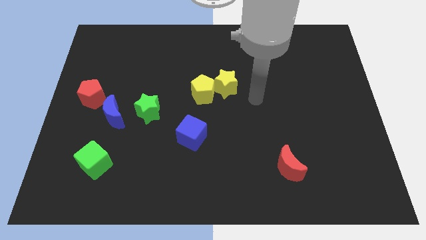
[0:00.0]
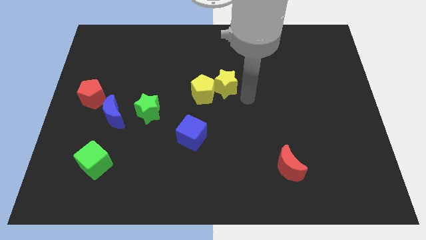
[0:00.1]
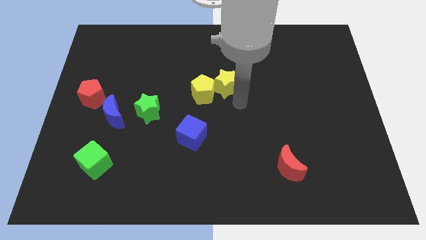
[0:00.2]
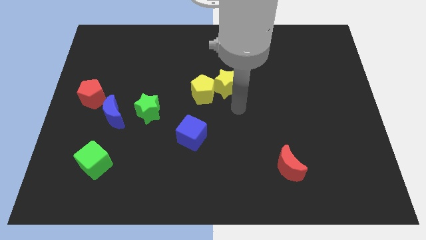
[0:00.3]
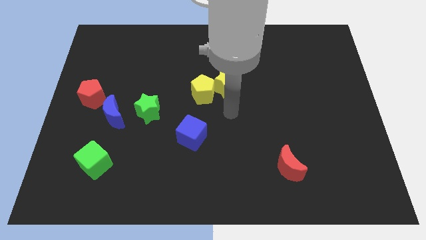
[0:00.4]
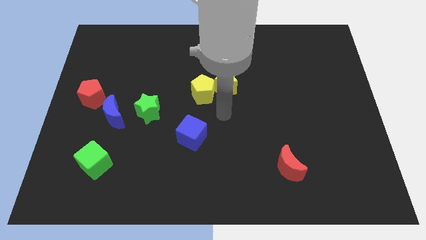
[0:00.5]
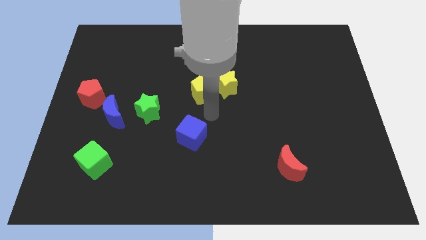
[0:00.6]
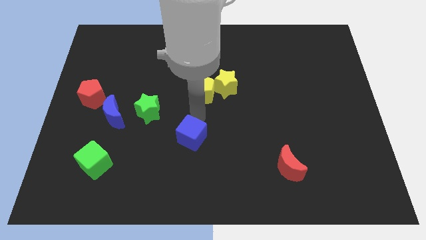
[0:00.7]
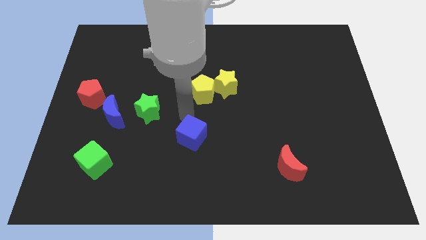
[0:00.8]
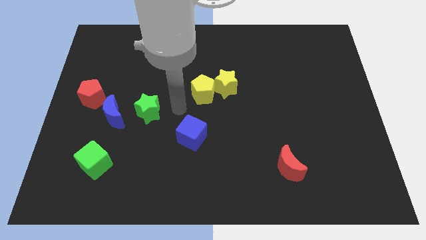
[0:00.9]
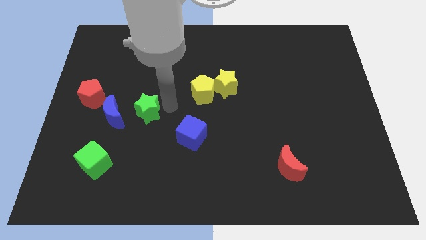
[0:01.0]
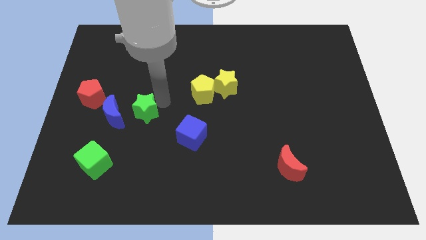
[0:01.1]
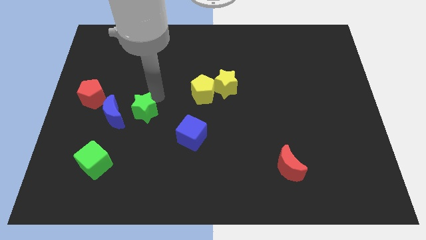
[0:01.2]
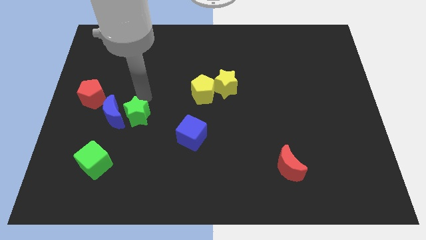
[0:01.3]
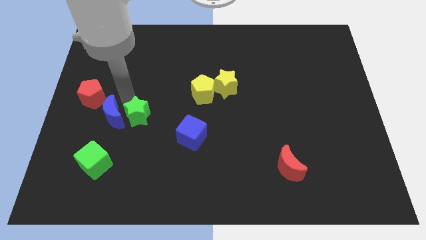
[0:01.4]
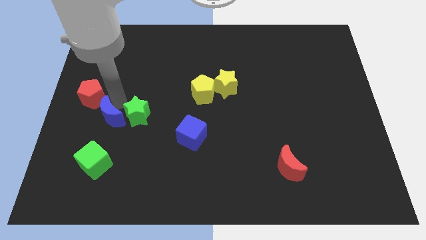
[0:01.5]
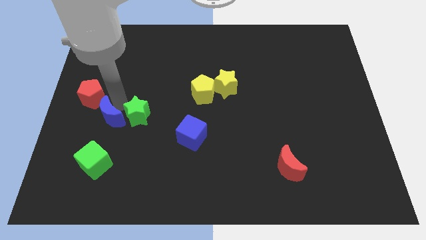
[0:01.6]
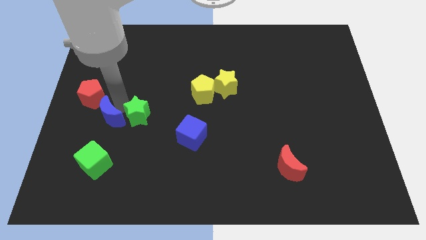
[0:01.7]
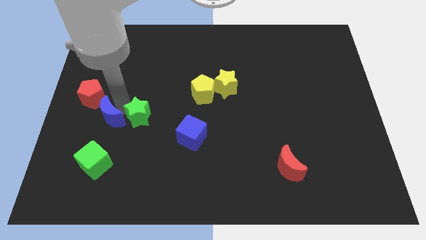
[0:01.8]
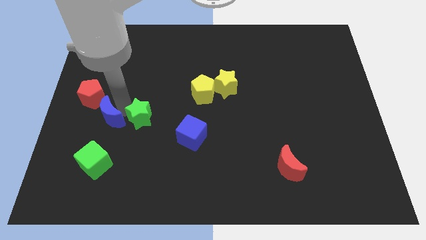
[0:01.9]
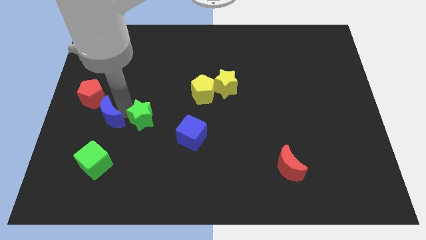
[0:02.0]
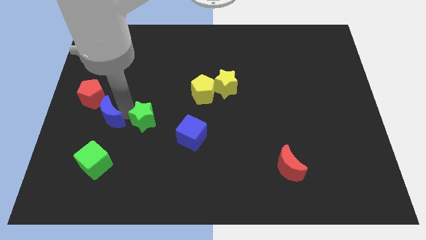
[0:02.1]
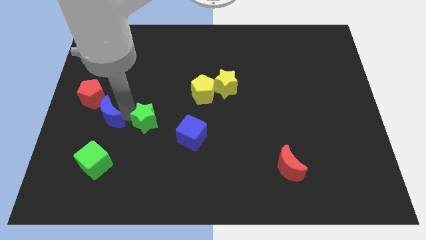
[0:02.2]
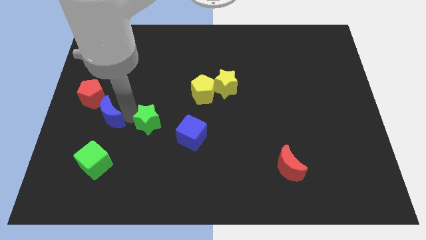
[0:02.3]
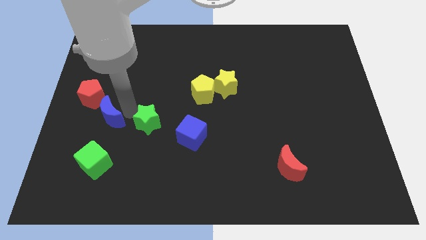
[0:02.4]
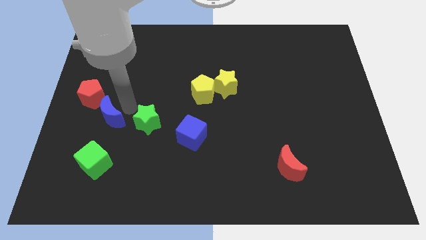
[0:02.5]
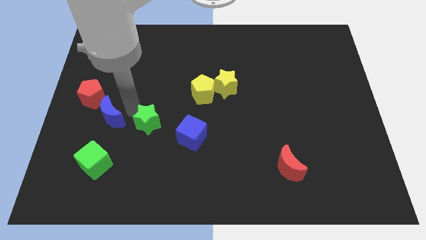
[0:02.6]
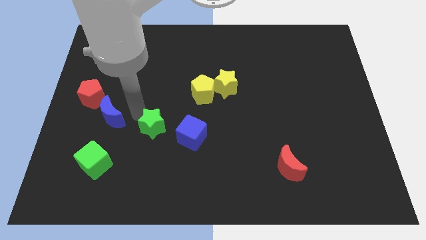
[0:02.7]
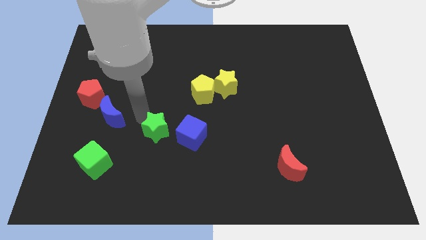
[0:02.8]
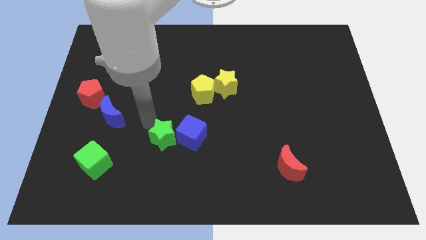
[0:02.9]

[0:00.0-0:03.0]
push the green star slightly downwards and then right

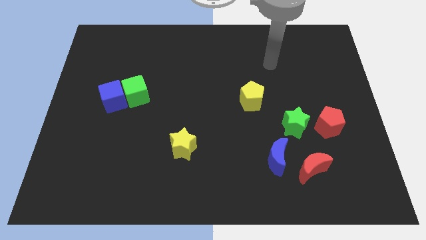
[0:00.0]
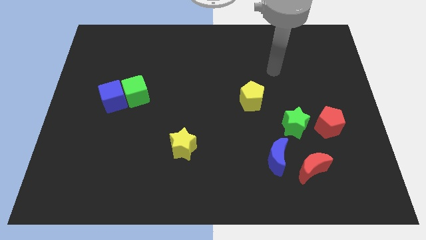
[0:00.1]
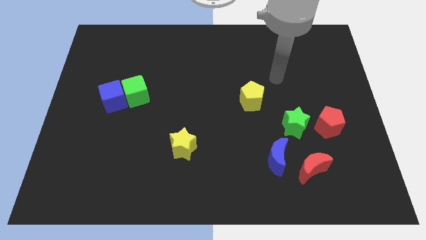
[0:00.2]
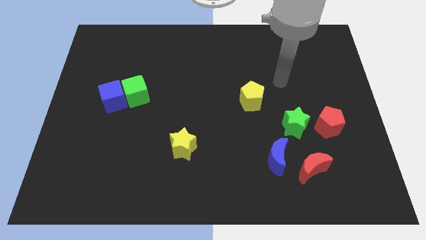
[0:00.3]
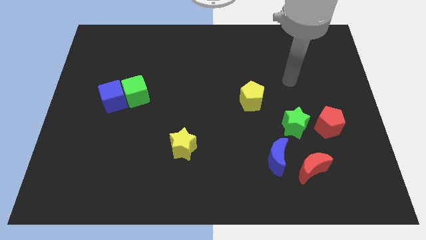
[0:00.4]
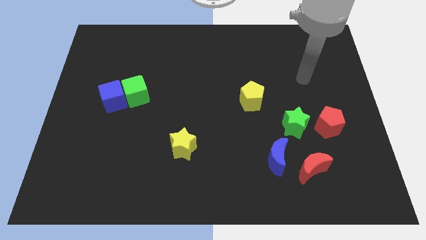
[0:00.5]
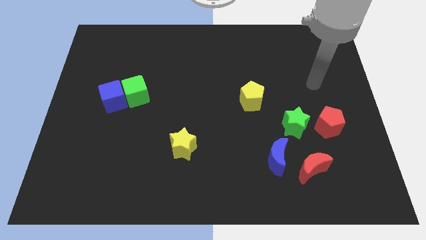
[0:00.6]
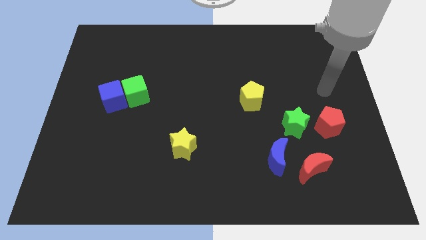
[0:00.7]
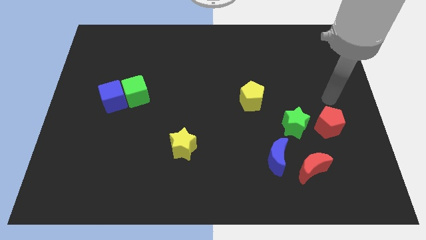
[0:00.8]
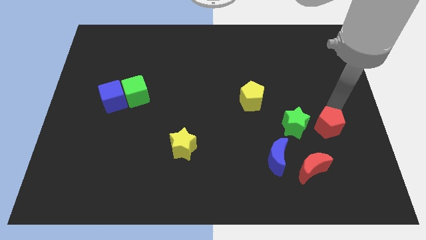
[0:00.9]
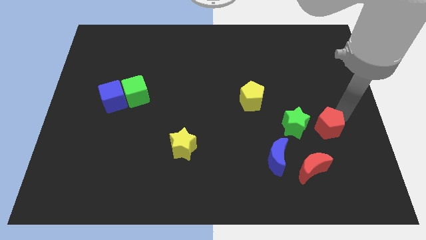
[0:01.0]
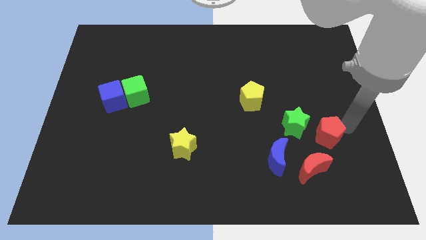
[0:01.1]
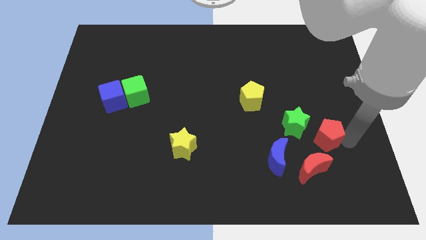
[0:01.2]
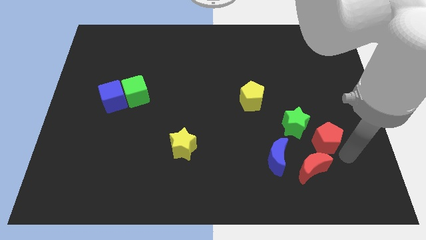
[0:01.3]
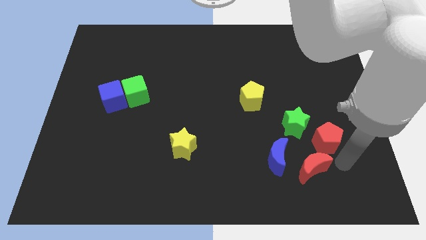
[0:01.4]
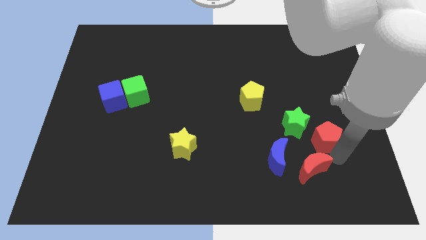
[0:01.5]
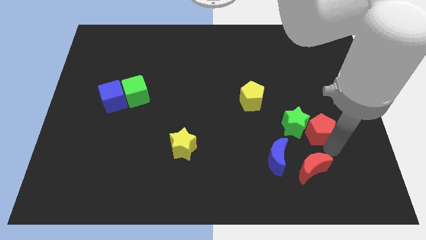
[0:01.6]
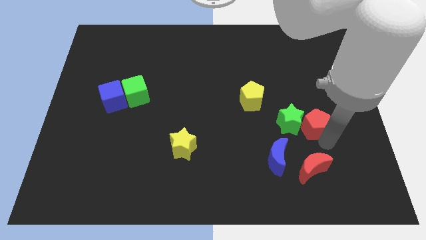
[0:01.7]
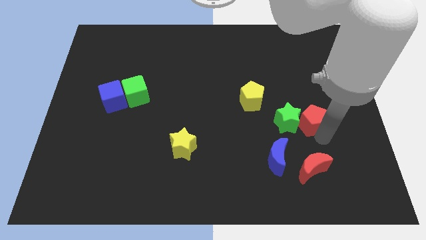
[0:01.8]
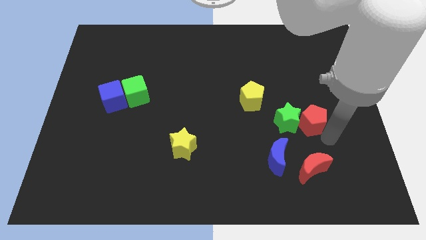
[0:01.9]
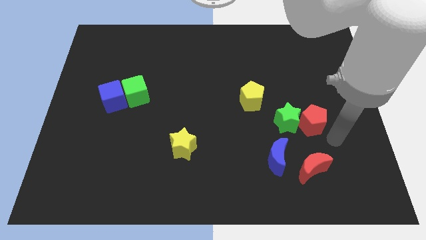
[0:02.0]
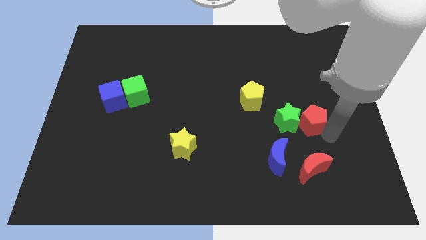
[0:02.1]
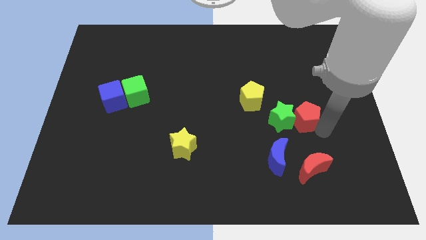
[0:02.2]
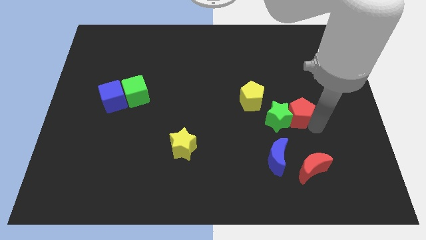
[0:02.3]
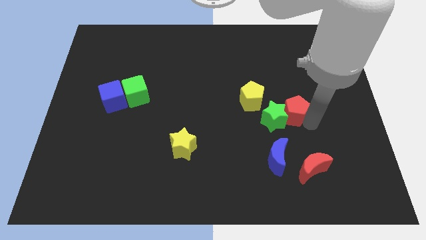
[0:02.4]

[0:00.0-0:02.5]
slightly slide the red pentagon up and left diagonally

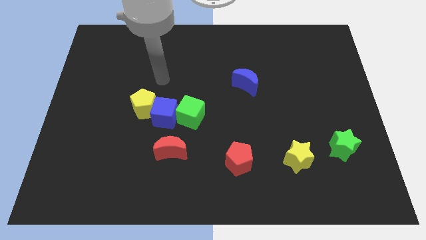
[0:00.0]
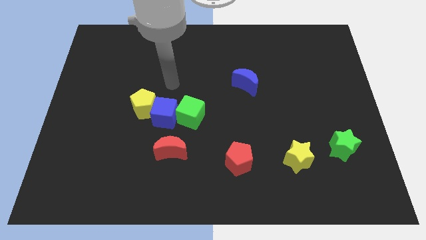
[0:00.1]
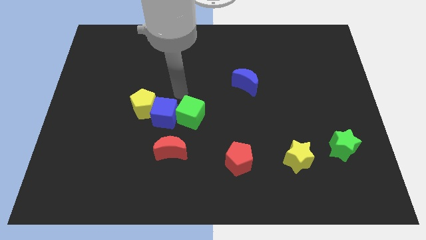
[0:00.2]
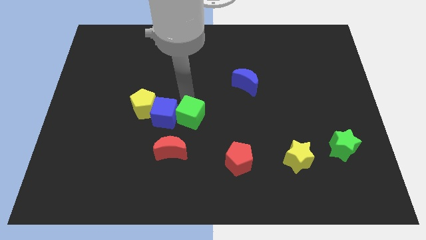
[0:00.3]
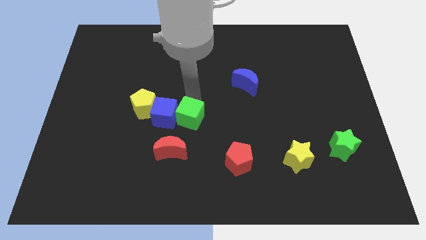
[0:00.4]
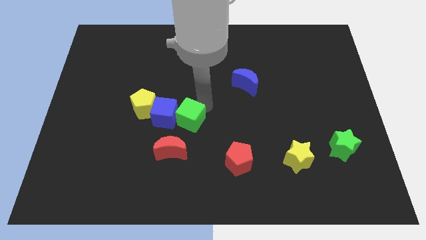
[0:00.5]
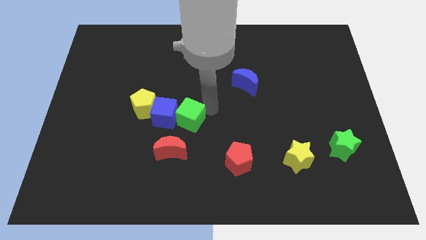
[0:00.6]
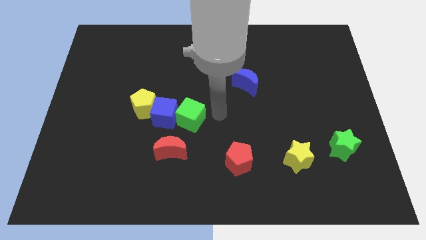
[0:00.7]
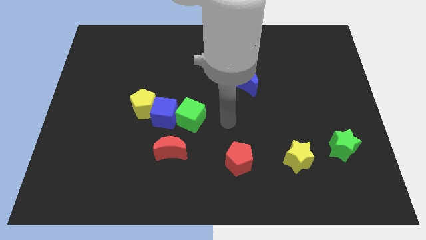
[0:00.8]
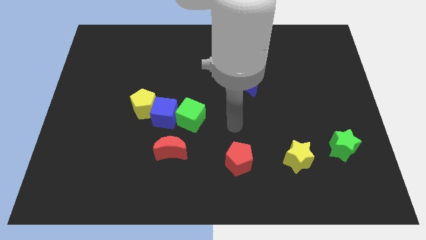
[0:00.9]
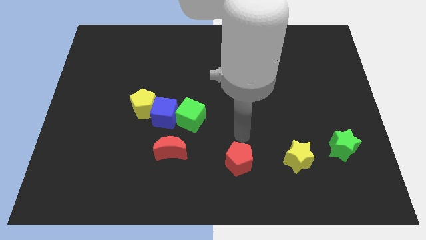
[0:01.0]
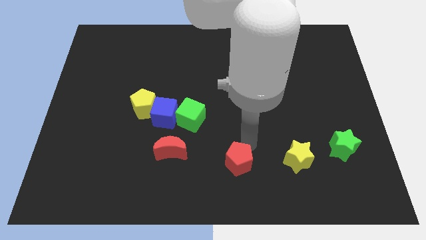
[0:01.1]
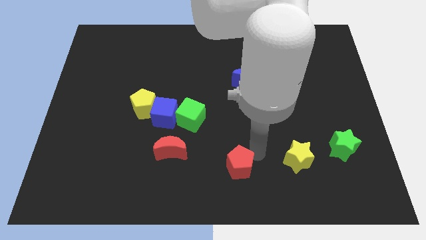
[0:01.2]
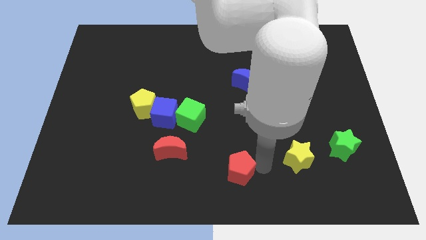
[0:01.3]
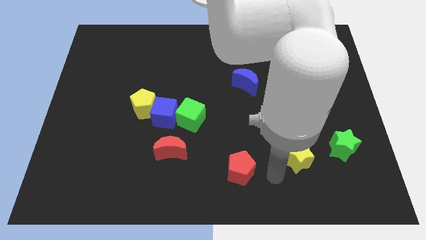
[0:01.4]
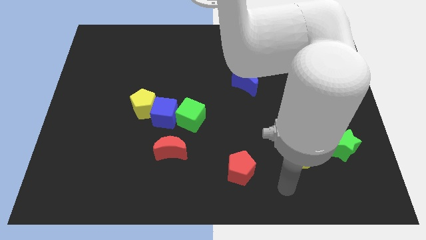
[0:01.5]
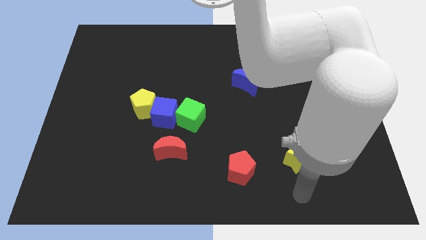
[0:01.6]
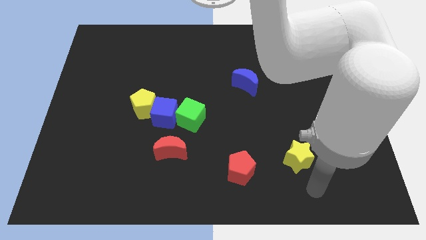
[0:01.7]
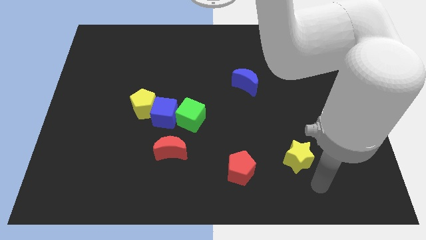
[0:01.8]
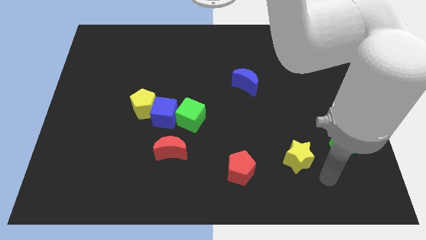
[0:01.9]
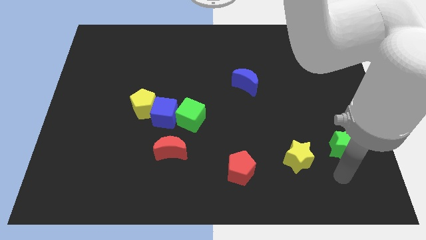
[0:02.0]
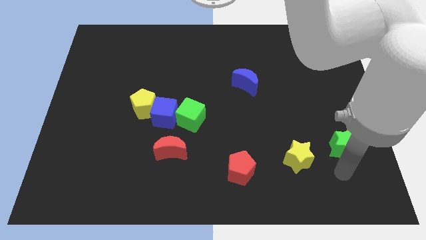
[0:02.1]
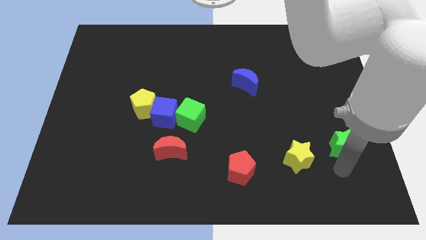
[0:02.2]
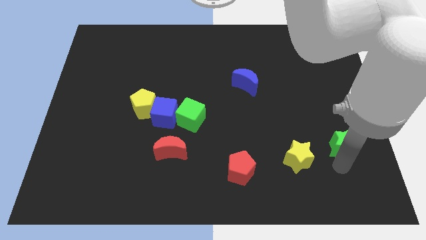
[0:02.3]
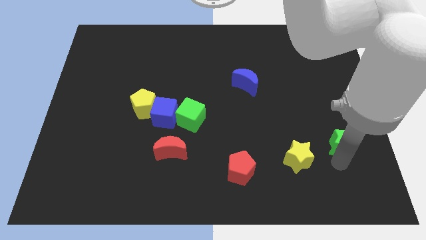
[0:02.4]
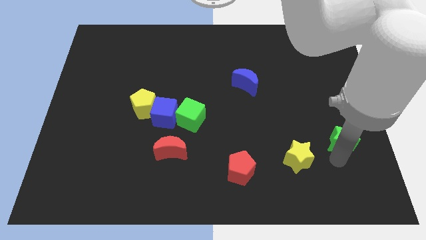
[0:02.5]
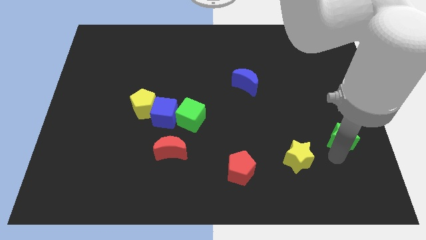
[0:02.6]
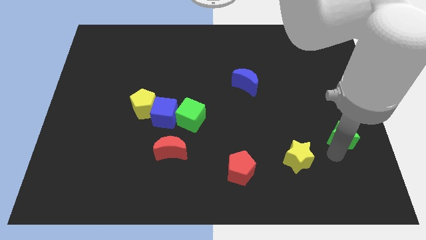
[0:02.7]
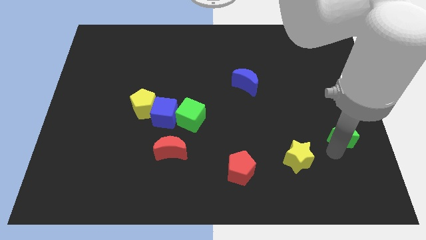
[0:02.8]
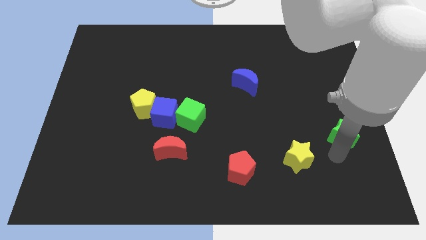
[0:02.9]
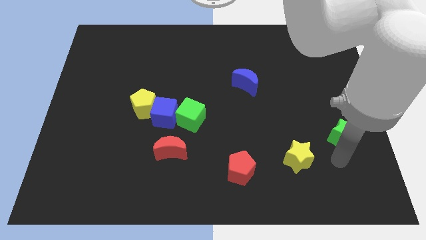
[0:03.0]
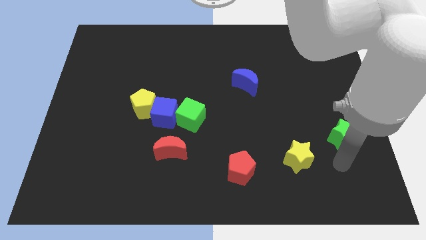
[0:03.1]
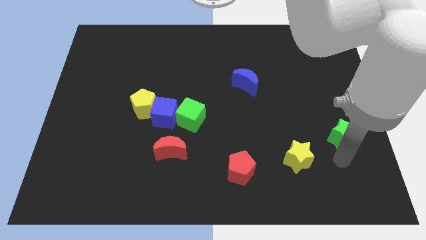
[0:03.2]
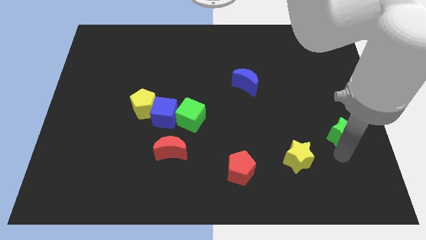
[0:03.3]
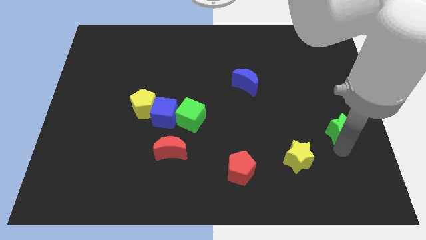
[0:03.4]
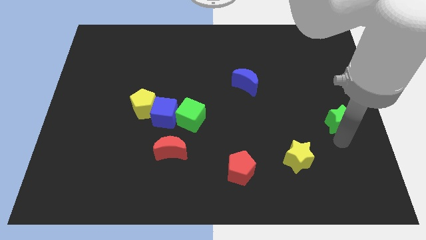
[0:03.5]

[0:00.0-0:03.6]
slightly push the green star up
